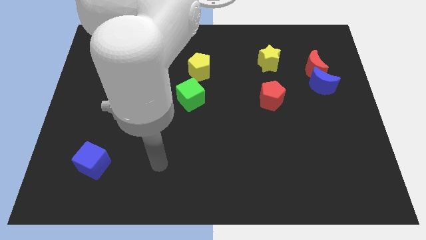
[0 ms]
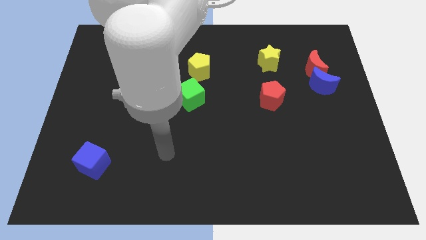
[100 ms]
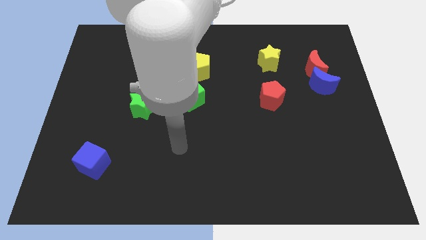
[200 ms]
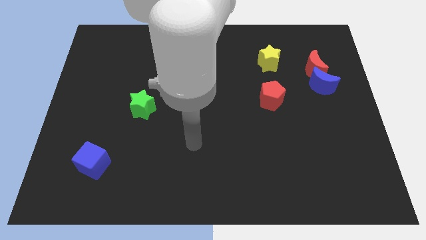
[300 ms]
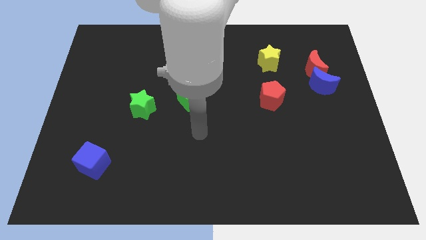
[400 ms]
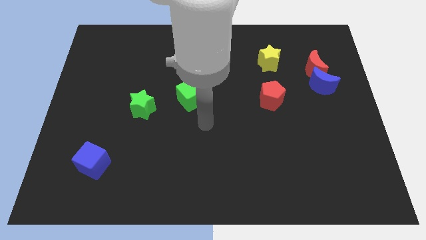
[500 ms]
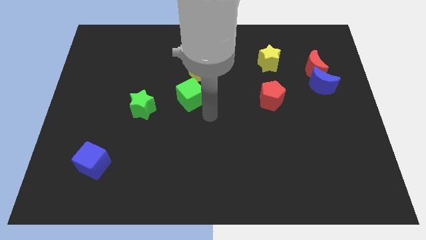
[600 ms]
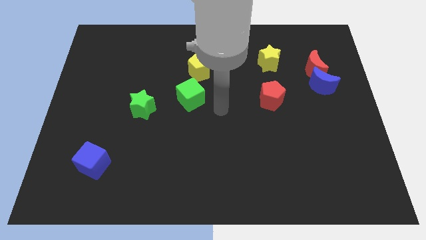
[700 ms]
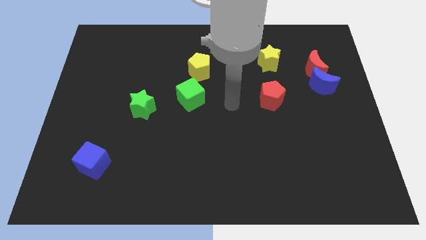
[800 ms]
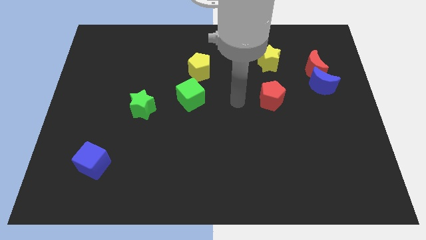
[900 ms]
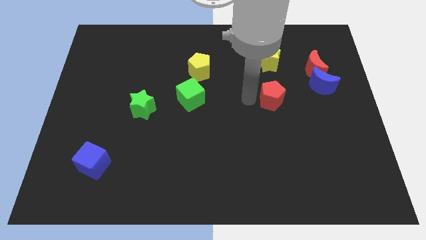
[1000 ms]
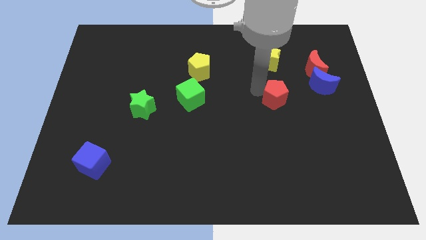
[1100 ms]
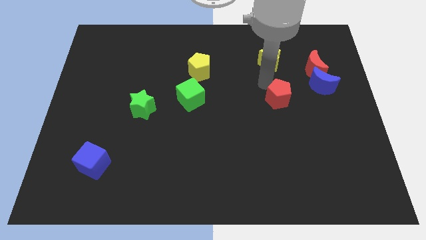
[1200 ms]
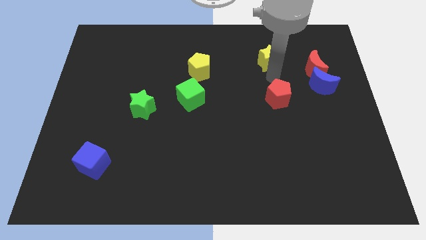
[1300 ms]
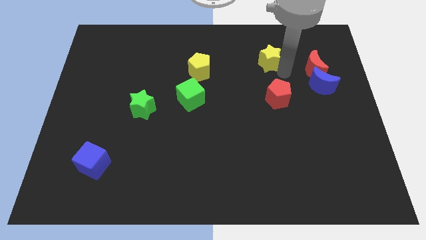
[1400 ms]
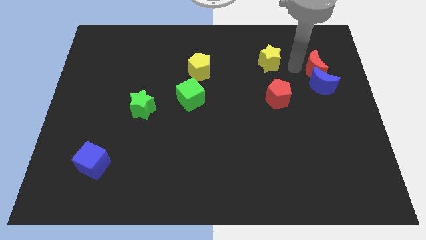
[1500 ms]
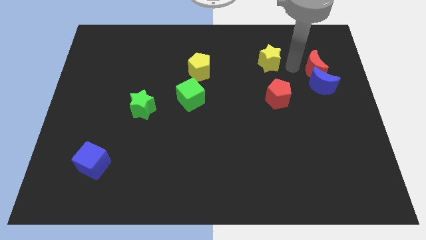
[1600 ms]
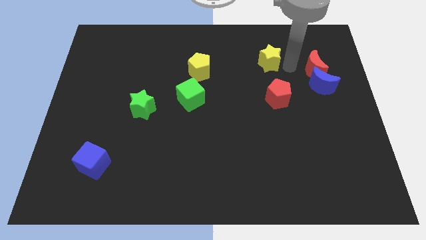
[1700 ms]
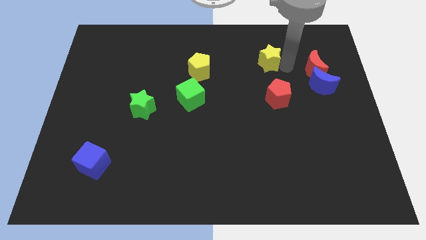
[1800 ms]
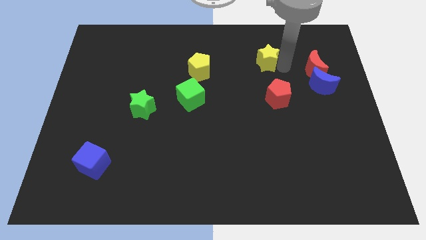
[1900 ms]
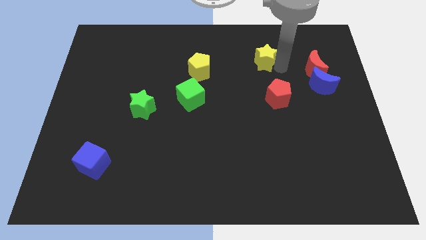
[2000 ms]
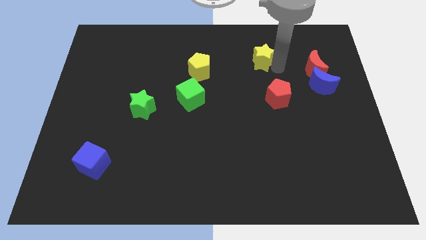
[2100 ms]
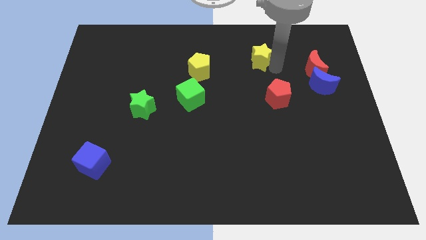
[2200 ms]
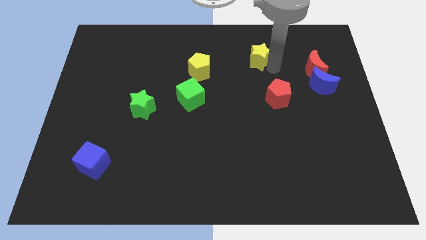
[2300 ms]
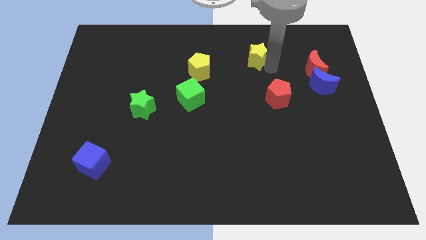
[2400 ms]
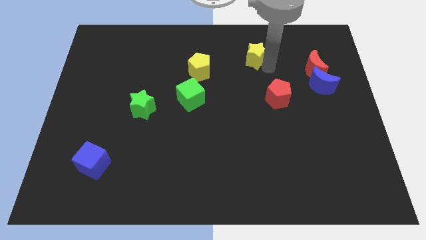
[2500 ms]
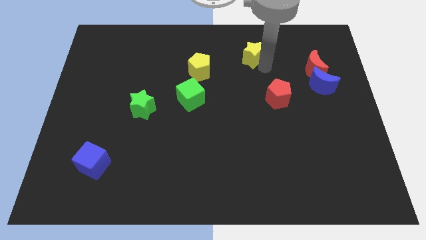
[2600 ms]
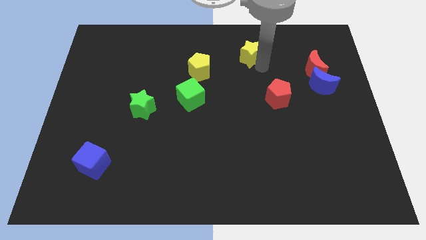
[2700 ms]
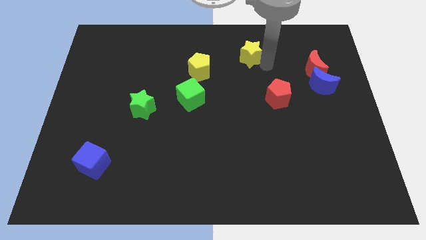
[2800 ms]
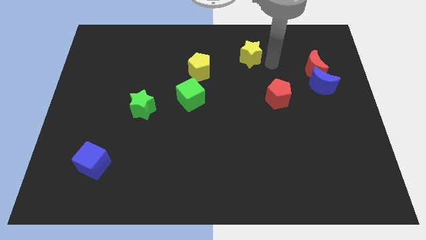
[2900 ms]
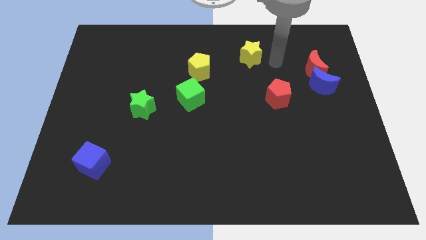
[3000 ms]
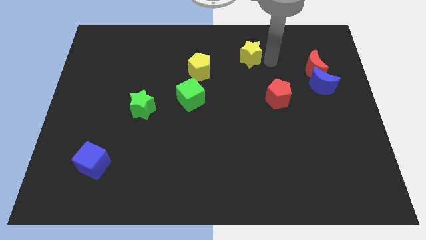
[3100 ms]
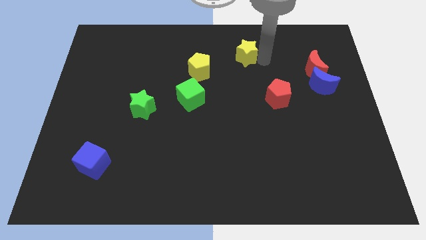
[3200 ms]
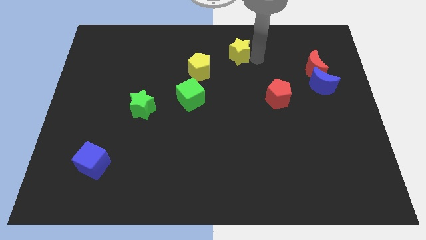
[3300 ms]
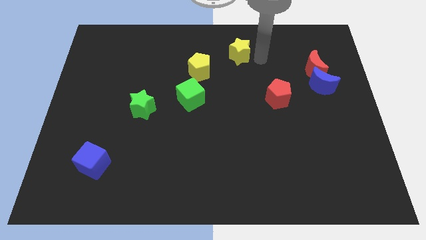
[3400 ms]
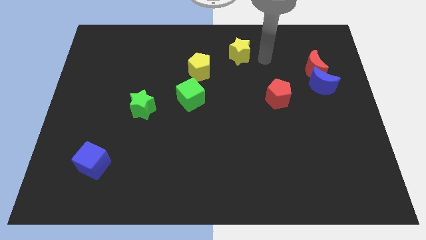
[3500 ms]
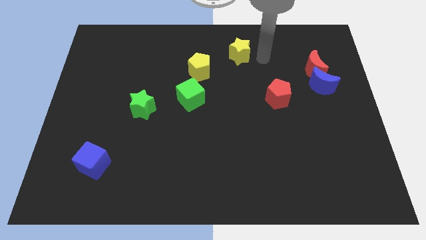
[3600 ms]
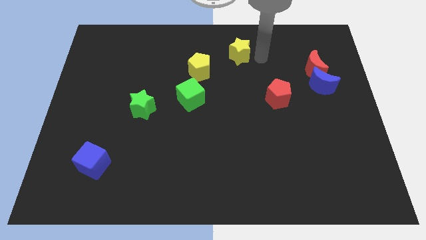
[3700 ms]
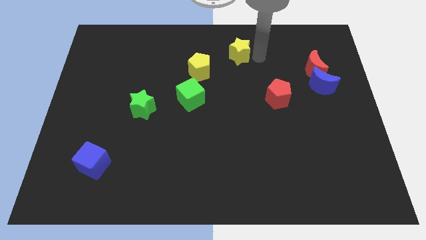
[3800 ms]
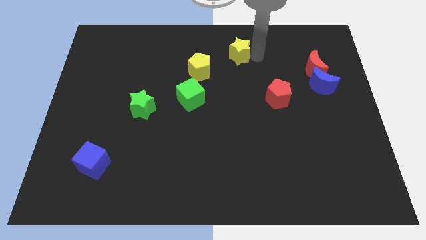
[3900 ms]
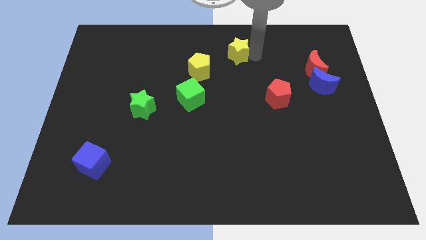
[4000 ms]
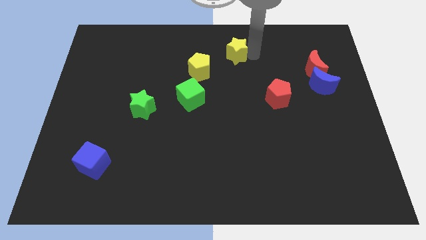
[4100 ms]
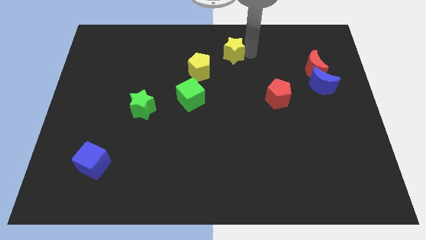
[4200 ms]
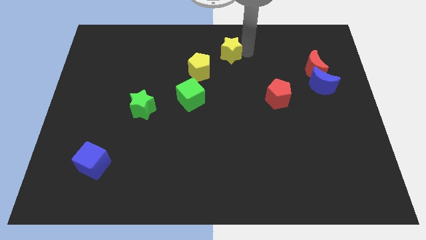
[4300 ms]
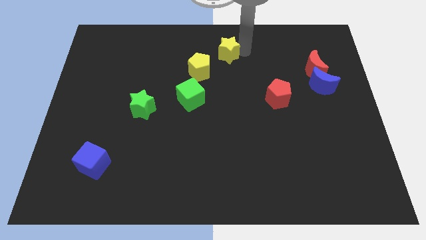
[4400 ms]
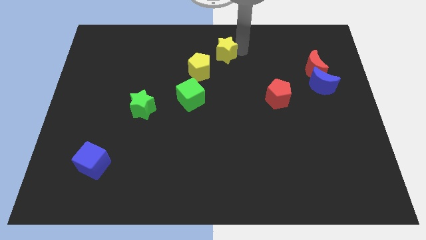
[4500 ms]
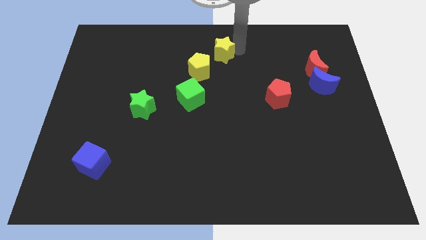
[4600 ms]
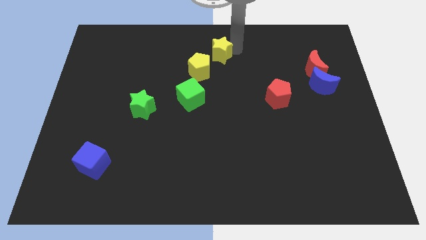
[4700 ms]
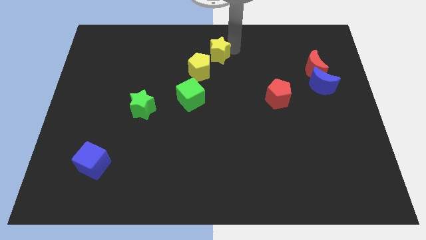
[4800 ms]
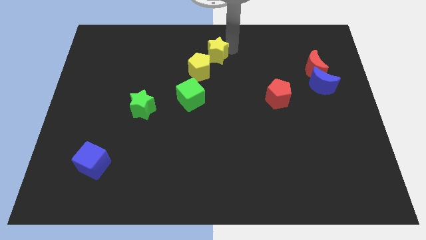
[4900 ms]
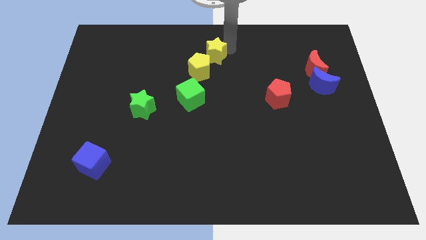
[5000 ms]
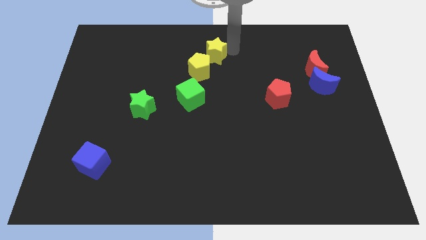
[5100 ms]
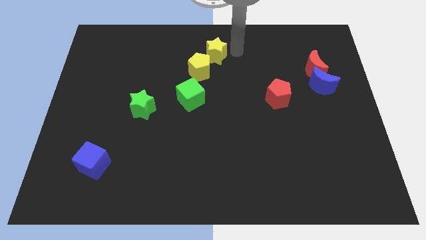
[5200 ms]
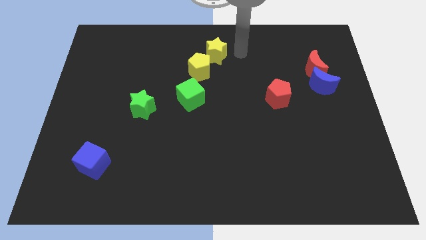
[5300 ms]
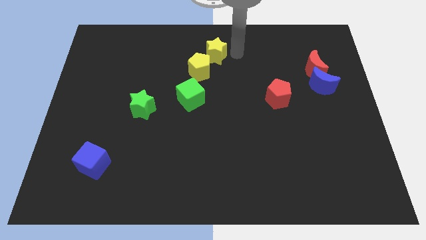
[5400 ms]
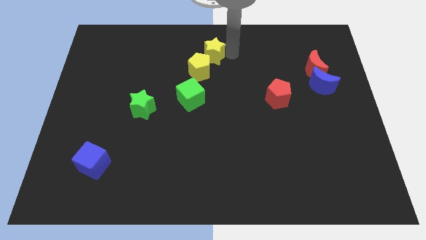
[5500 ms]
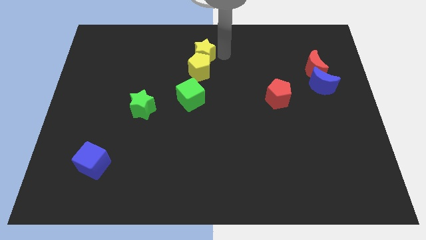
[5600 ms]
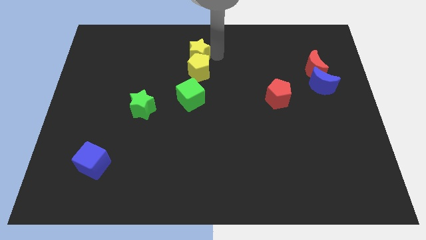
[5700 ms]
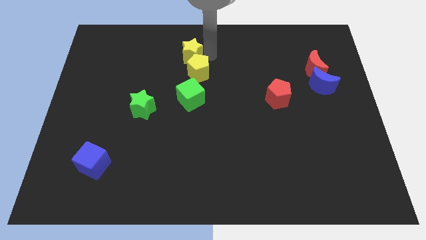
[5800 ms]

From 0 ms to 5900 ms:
move the yellow star to the left

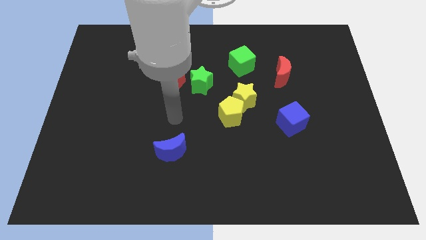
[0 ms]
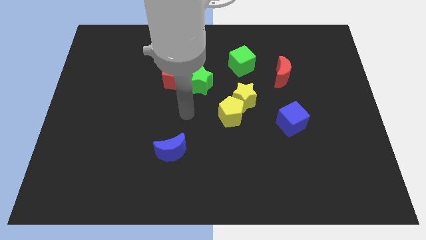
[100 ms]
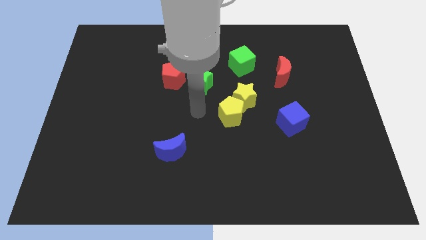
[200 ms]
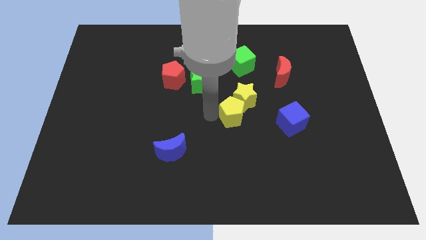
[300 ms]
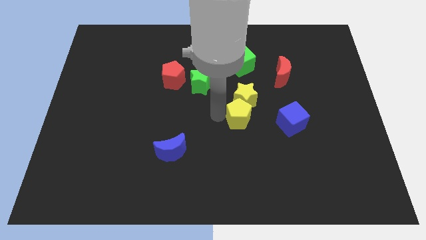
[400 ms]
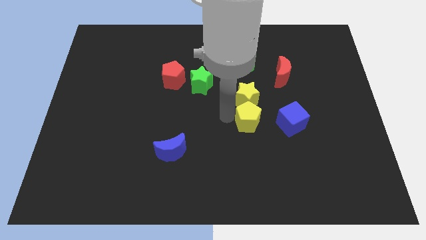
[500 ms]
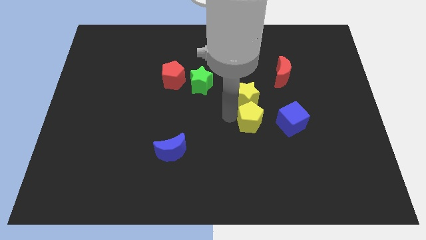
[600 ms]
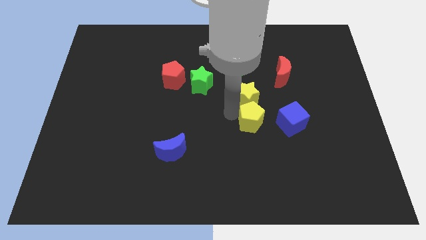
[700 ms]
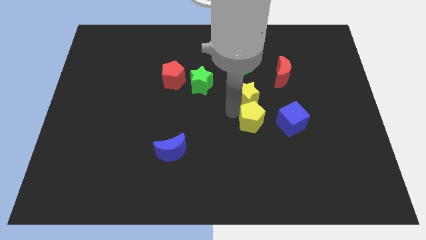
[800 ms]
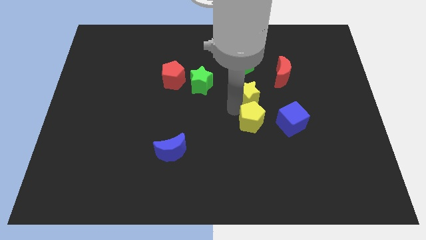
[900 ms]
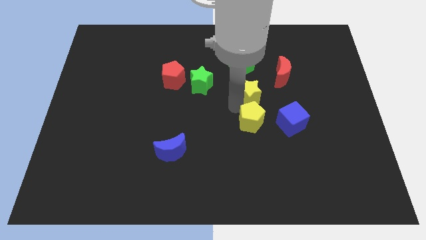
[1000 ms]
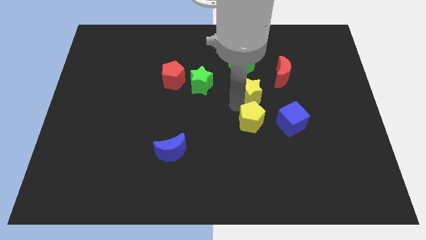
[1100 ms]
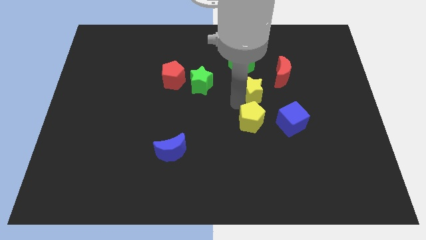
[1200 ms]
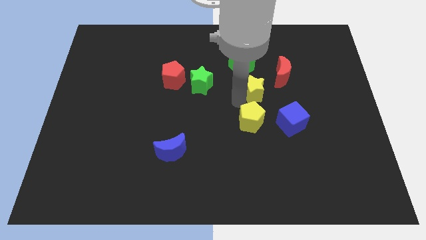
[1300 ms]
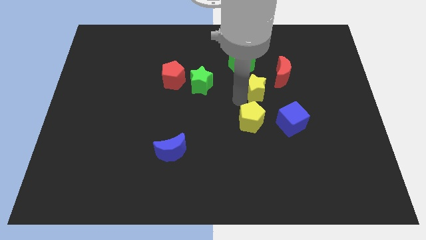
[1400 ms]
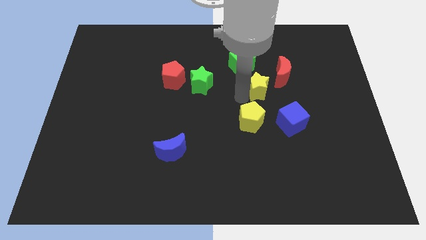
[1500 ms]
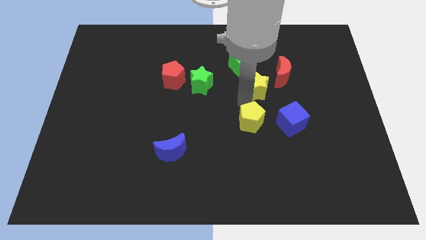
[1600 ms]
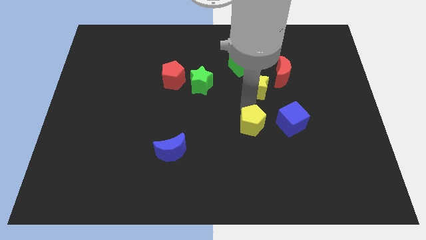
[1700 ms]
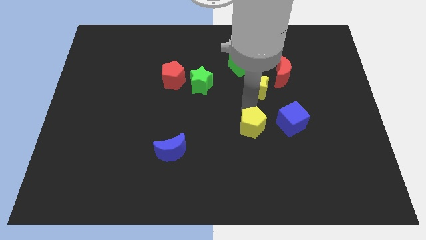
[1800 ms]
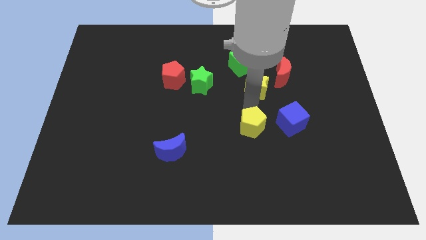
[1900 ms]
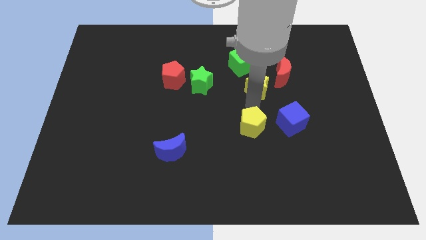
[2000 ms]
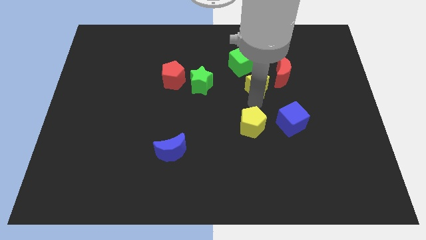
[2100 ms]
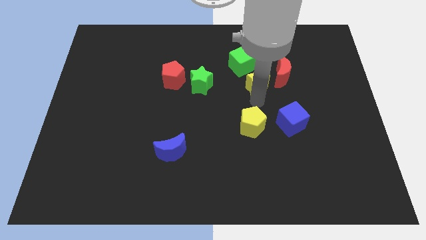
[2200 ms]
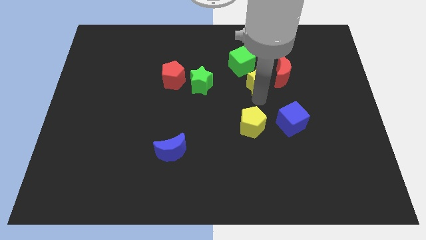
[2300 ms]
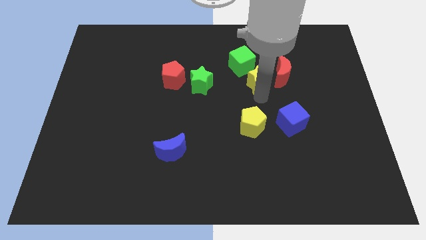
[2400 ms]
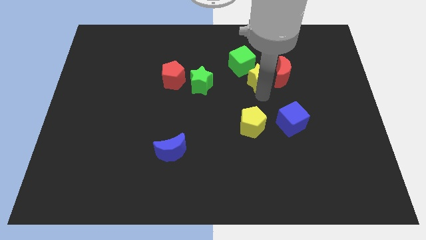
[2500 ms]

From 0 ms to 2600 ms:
move the yellow star diagonally upwards and right slightly
